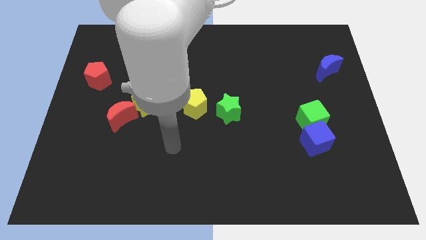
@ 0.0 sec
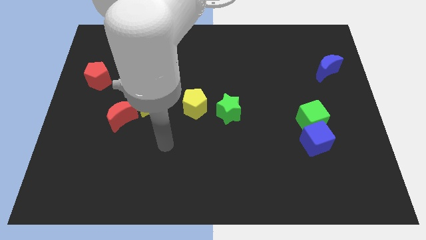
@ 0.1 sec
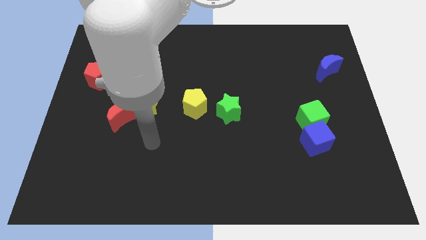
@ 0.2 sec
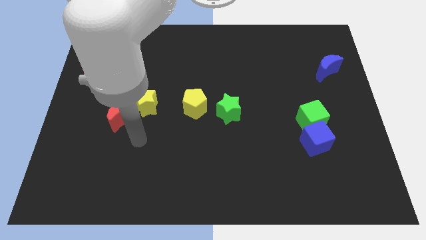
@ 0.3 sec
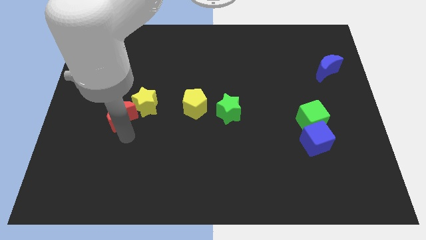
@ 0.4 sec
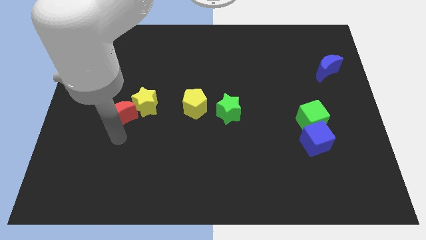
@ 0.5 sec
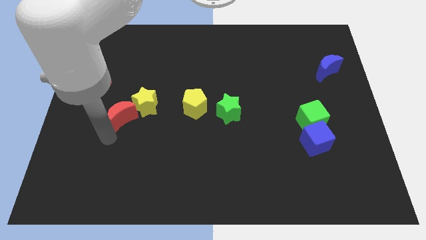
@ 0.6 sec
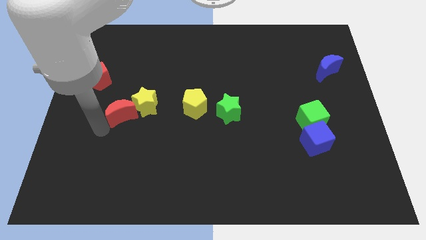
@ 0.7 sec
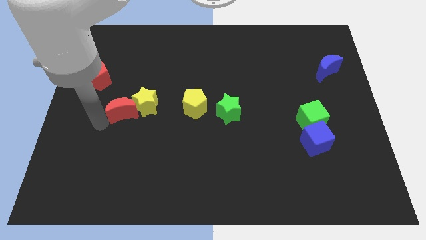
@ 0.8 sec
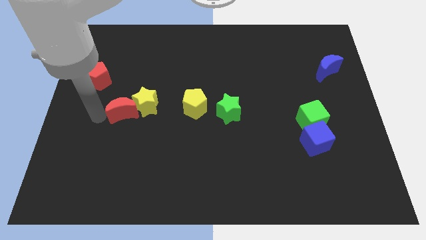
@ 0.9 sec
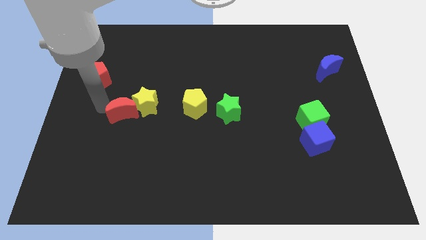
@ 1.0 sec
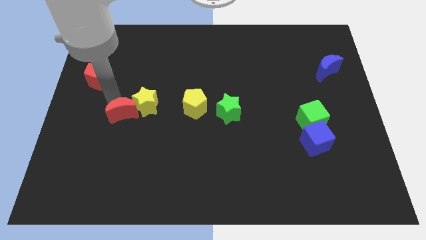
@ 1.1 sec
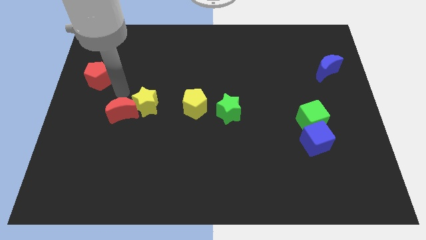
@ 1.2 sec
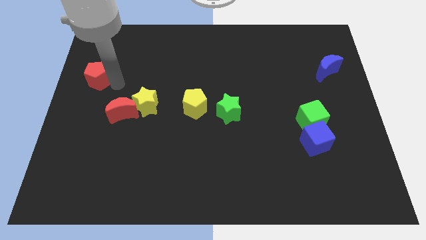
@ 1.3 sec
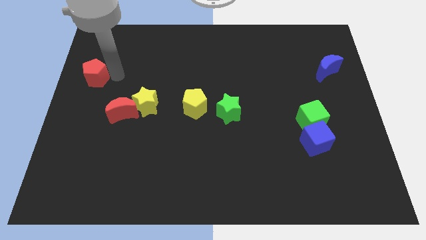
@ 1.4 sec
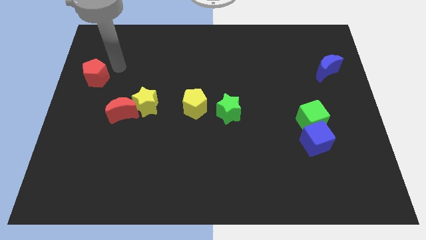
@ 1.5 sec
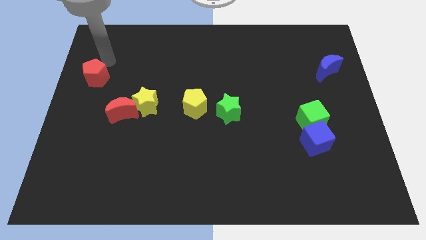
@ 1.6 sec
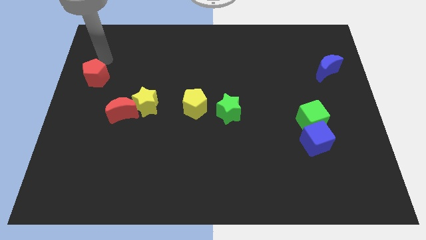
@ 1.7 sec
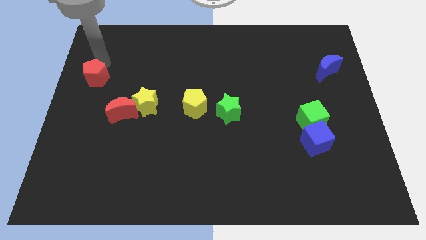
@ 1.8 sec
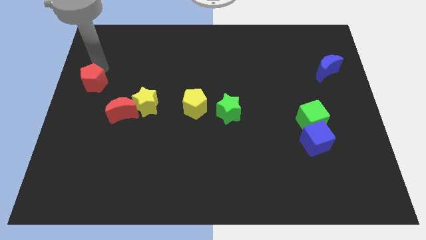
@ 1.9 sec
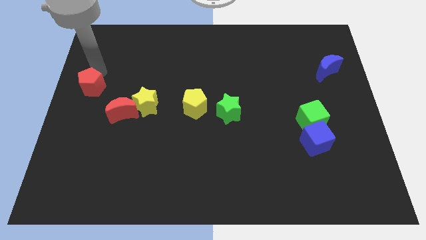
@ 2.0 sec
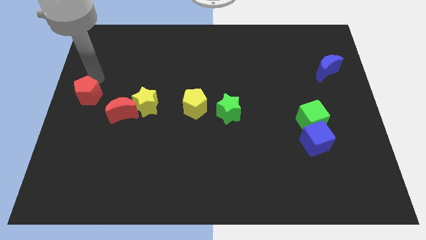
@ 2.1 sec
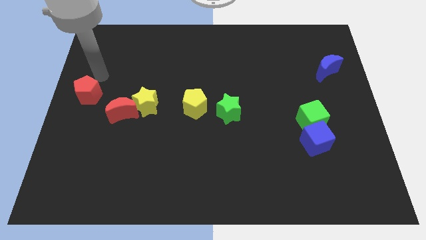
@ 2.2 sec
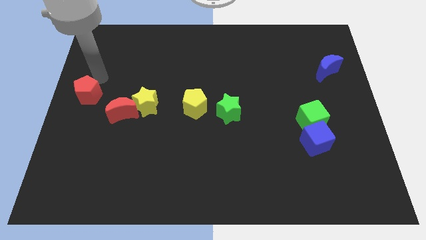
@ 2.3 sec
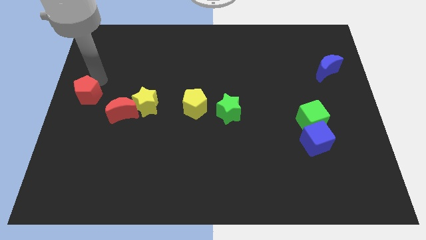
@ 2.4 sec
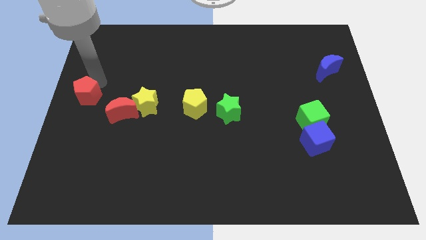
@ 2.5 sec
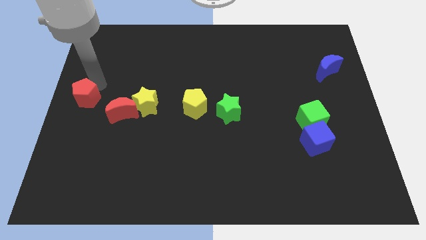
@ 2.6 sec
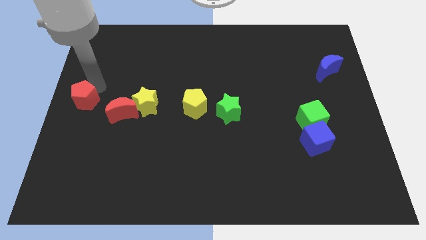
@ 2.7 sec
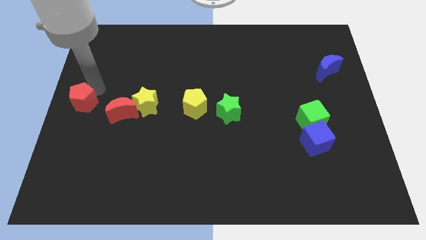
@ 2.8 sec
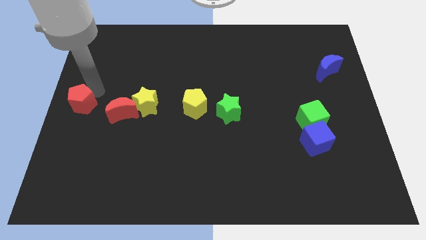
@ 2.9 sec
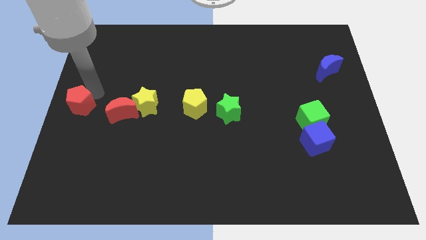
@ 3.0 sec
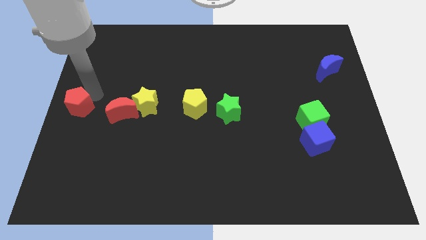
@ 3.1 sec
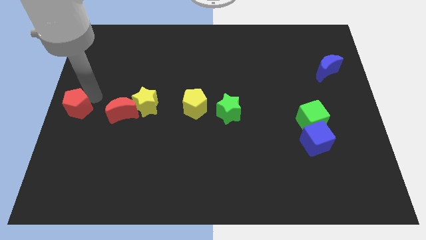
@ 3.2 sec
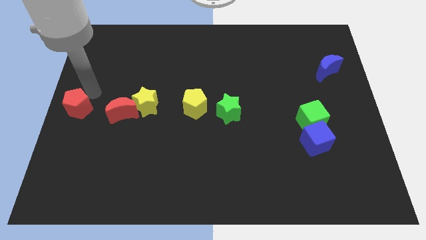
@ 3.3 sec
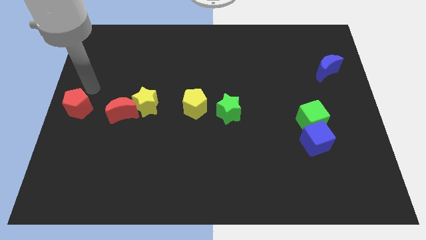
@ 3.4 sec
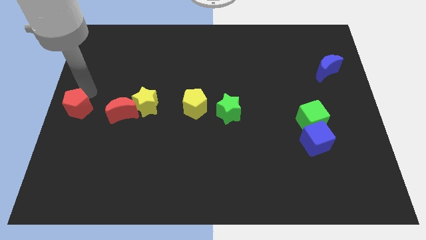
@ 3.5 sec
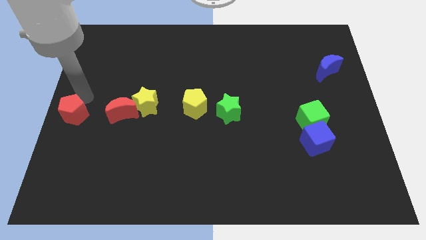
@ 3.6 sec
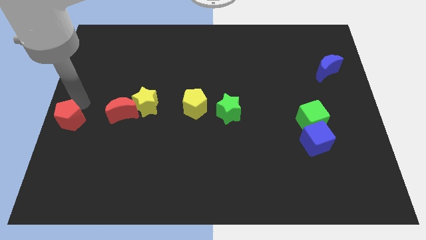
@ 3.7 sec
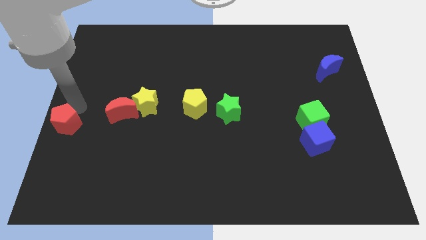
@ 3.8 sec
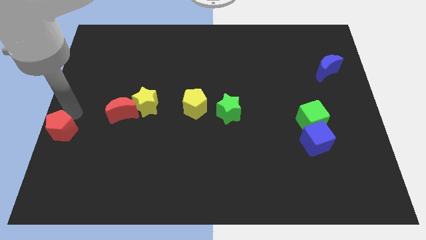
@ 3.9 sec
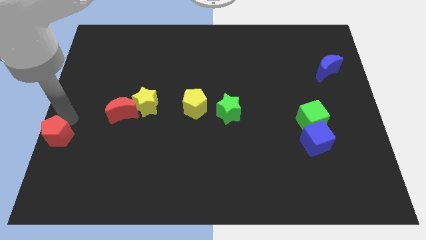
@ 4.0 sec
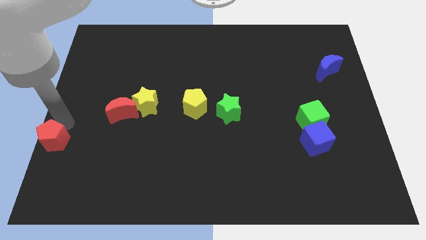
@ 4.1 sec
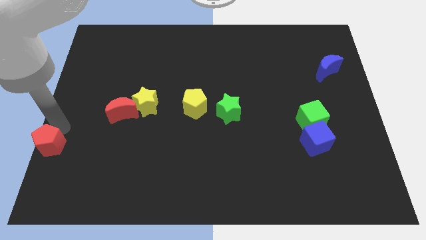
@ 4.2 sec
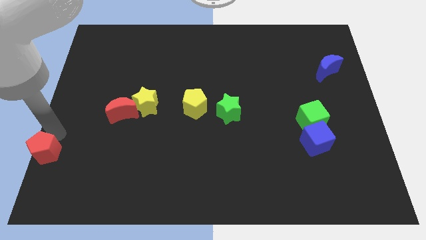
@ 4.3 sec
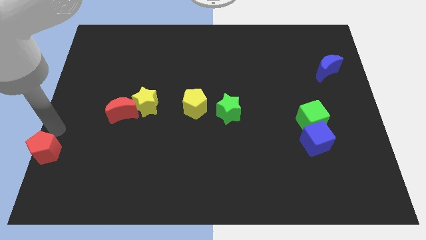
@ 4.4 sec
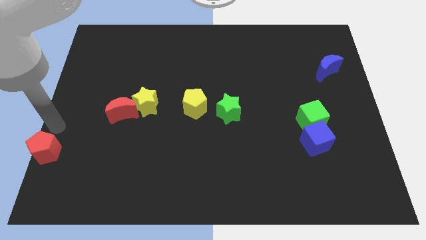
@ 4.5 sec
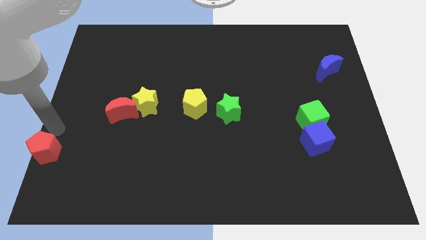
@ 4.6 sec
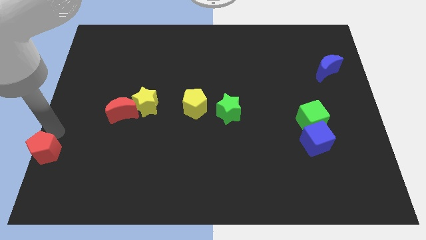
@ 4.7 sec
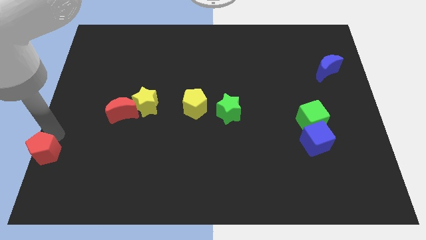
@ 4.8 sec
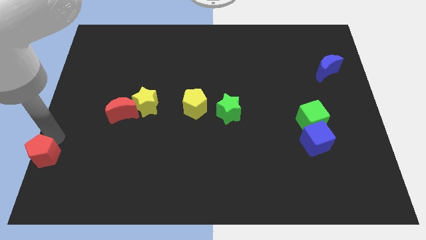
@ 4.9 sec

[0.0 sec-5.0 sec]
move the red pentagon to the bottom left corner
